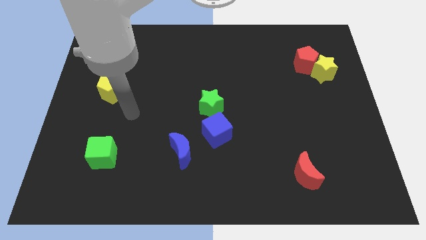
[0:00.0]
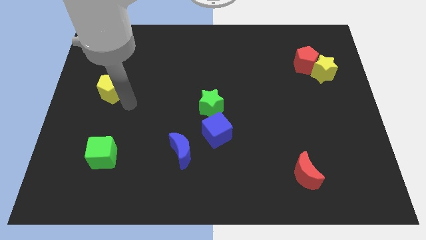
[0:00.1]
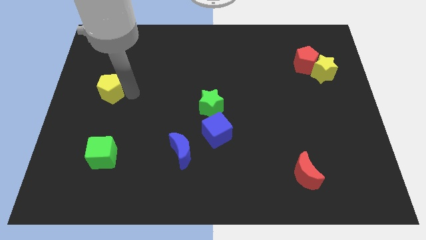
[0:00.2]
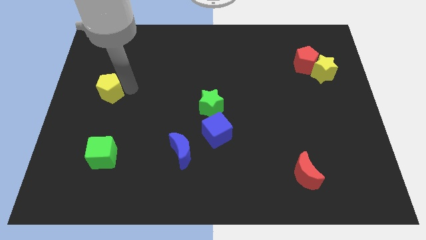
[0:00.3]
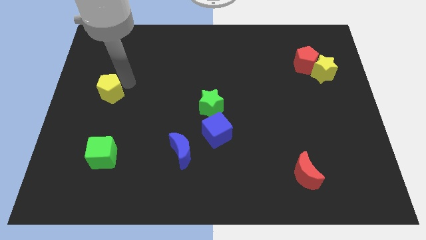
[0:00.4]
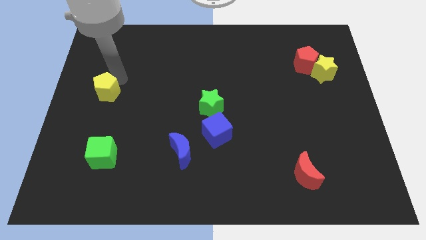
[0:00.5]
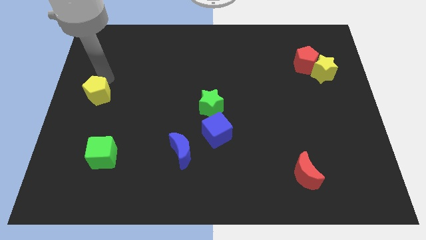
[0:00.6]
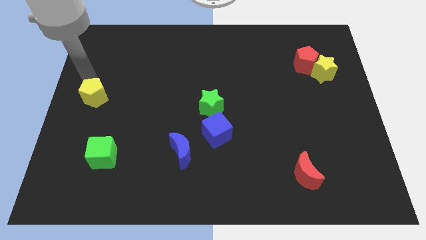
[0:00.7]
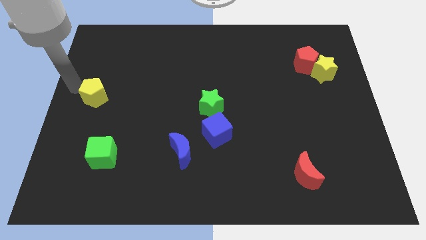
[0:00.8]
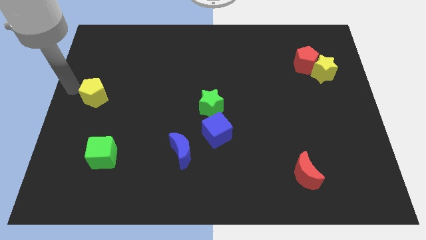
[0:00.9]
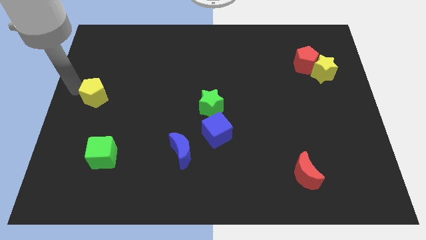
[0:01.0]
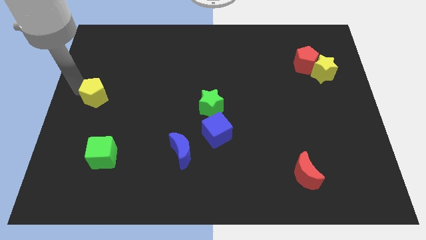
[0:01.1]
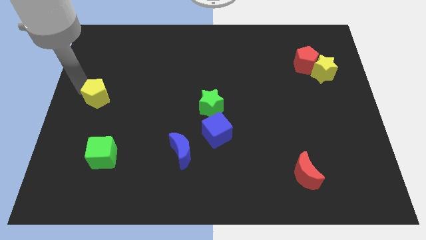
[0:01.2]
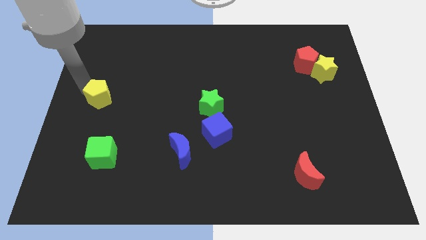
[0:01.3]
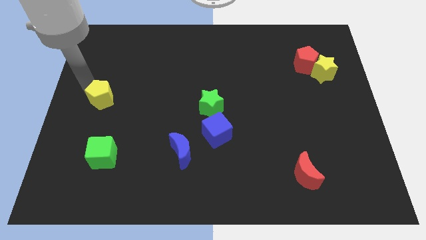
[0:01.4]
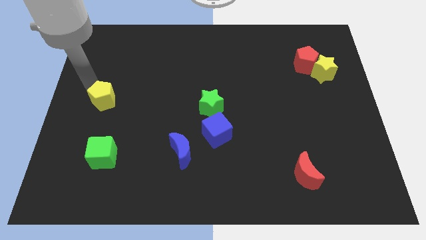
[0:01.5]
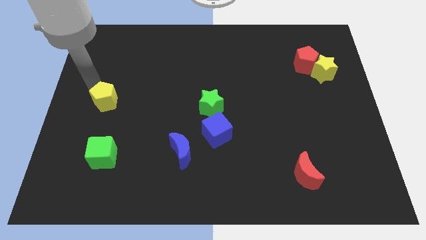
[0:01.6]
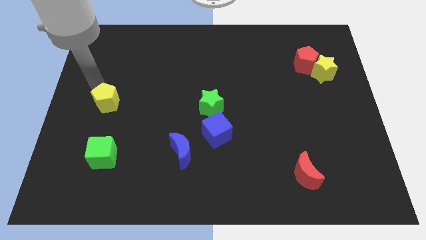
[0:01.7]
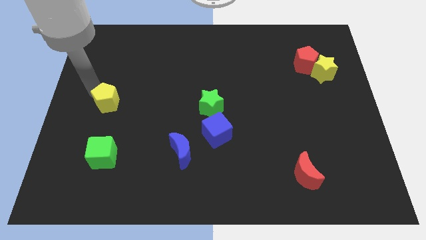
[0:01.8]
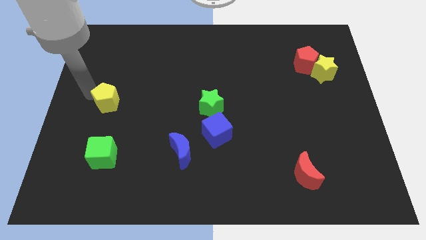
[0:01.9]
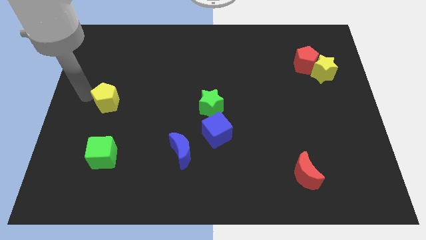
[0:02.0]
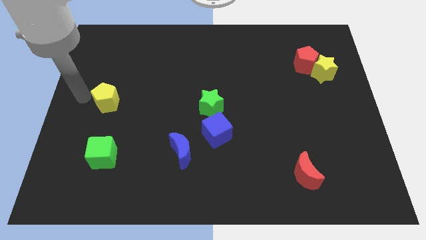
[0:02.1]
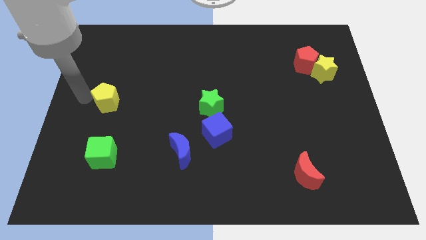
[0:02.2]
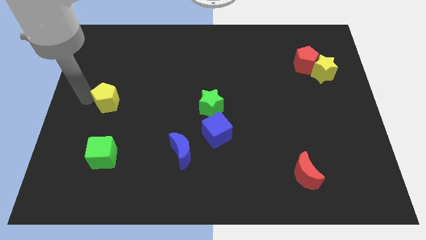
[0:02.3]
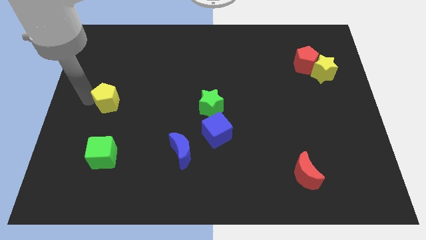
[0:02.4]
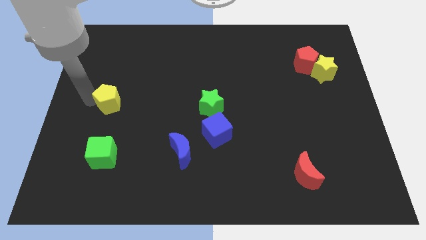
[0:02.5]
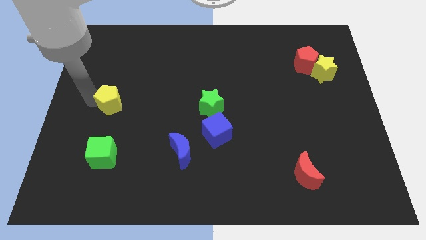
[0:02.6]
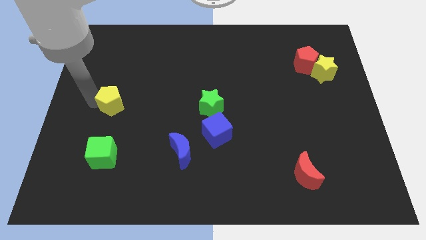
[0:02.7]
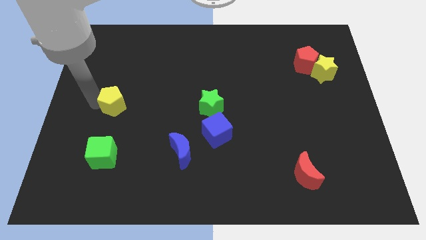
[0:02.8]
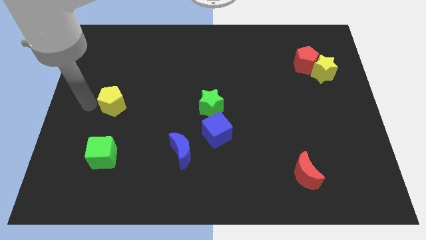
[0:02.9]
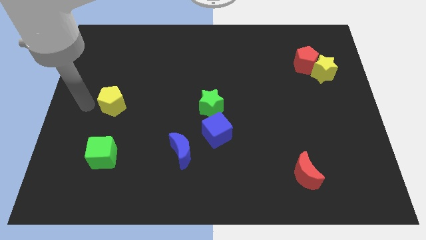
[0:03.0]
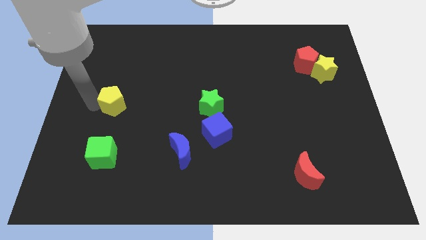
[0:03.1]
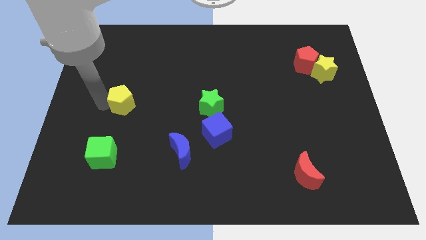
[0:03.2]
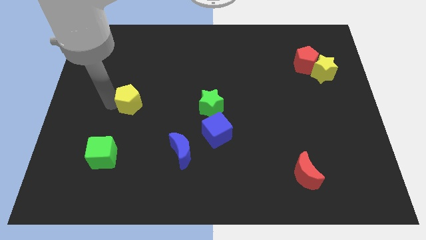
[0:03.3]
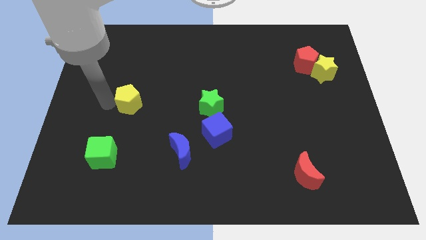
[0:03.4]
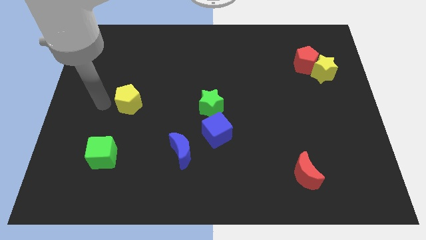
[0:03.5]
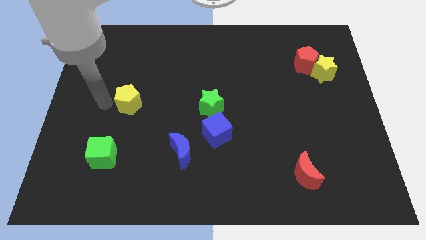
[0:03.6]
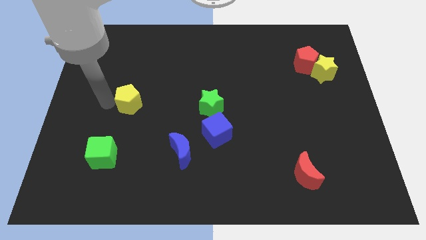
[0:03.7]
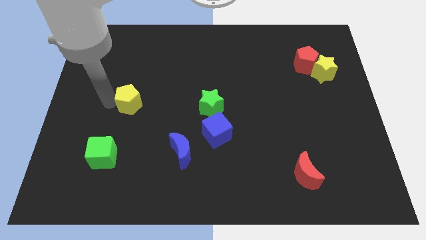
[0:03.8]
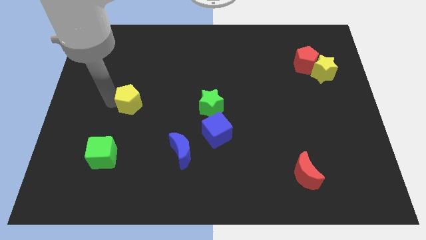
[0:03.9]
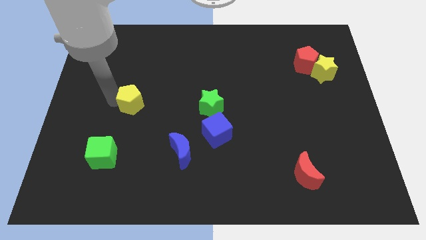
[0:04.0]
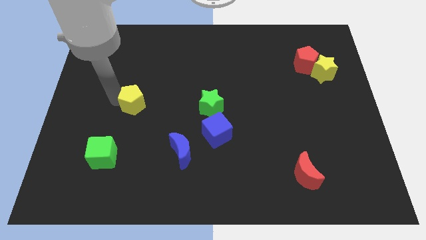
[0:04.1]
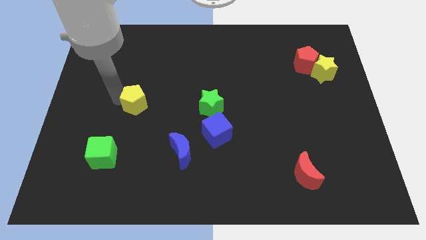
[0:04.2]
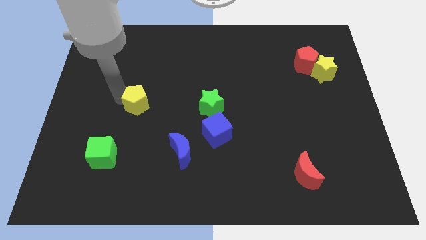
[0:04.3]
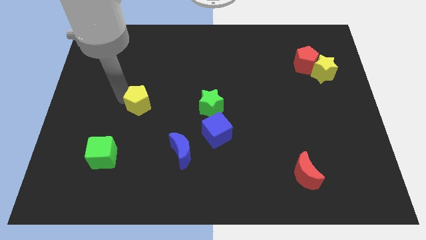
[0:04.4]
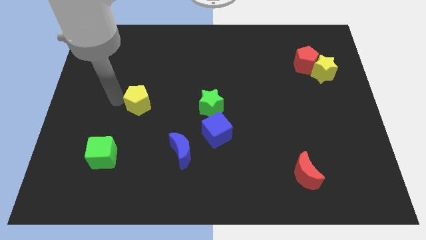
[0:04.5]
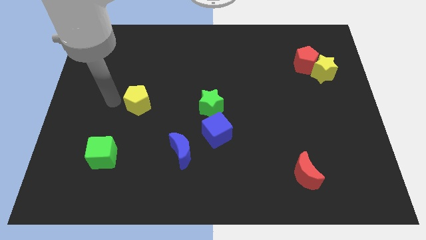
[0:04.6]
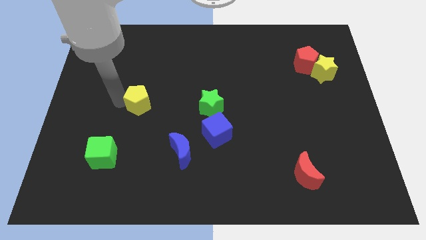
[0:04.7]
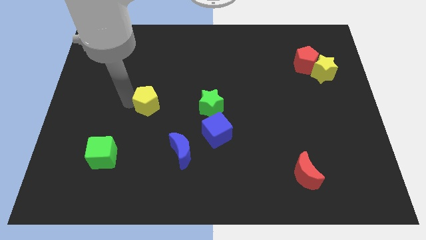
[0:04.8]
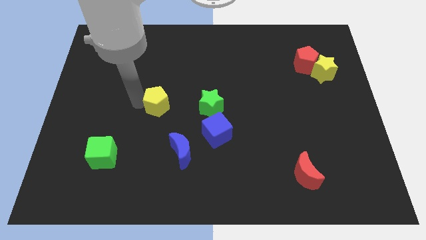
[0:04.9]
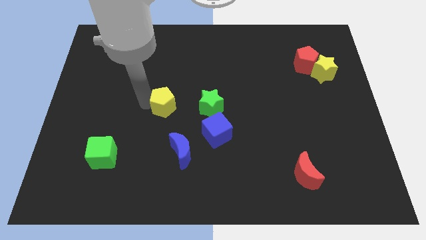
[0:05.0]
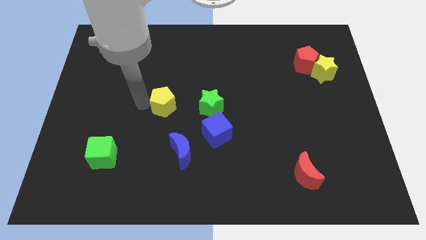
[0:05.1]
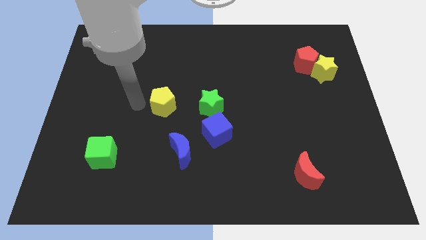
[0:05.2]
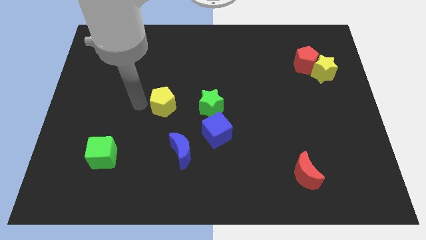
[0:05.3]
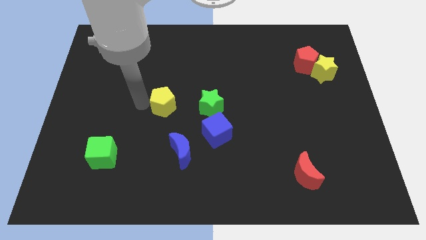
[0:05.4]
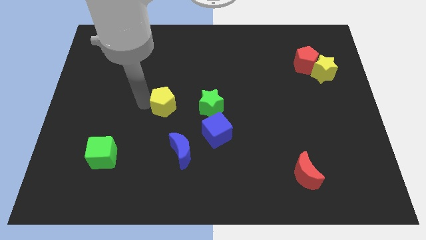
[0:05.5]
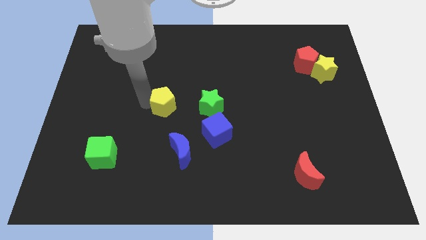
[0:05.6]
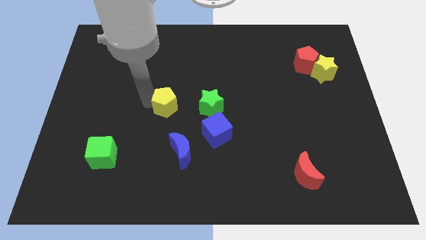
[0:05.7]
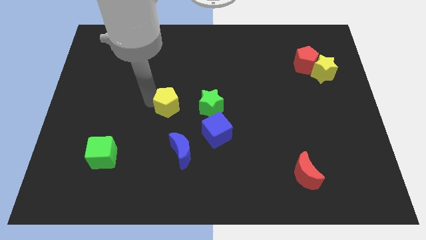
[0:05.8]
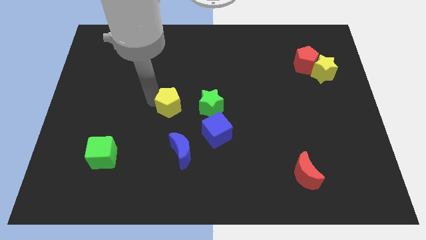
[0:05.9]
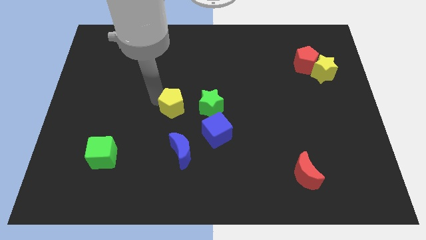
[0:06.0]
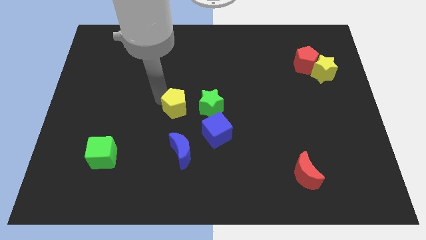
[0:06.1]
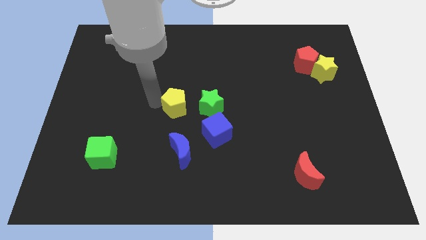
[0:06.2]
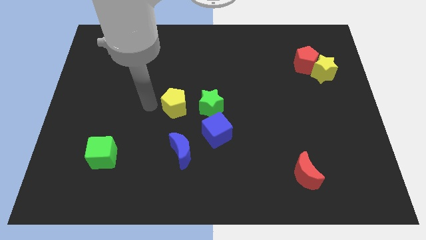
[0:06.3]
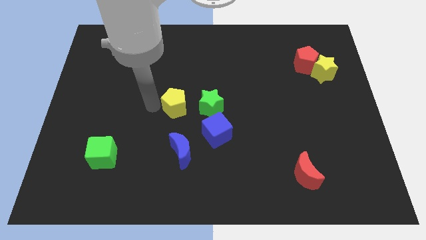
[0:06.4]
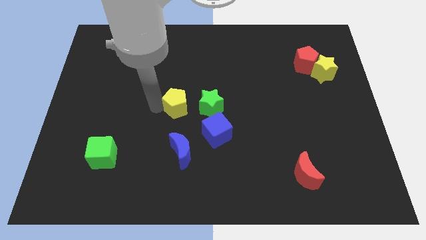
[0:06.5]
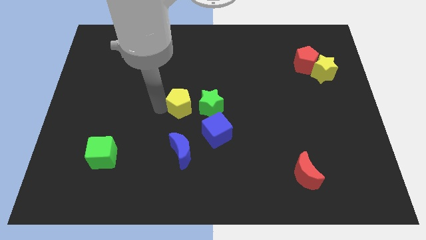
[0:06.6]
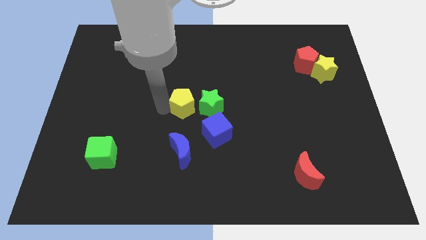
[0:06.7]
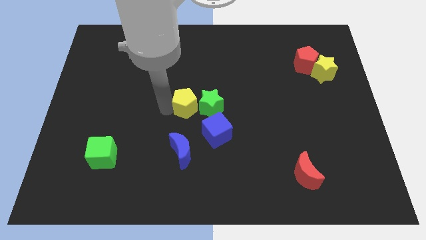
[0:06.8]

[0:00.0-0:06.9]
move the yellow pentagon close to the green star
